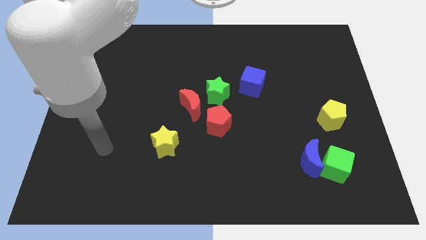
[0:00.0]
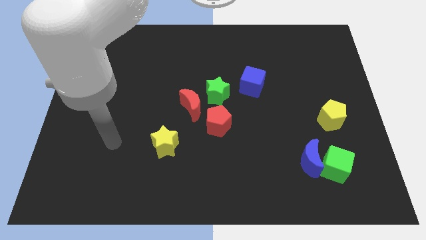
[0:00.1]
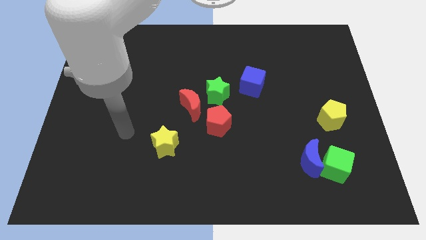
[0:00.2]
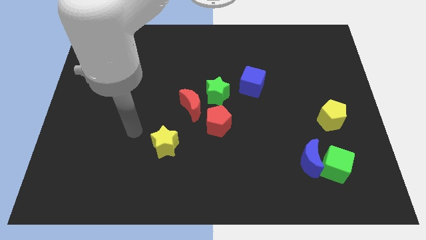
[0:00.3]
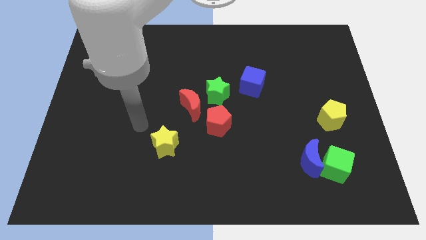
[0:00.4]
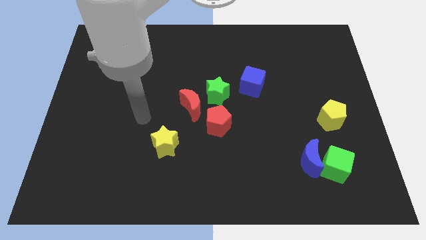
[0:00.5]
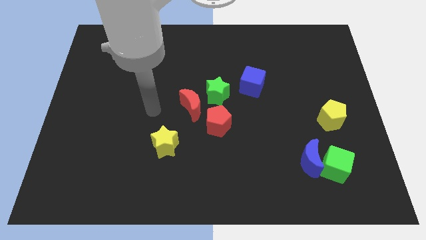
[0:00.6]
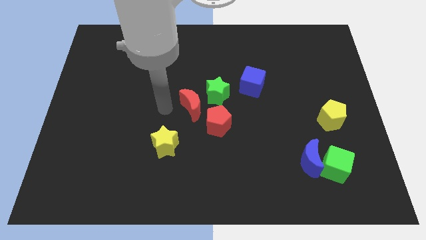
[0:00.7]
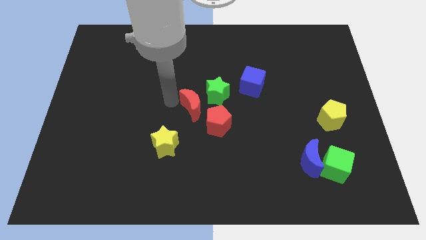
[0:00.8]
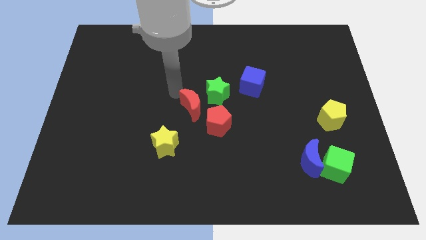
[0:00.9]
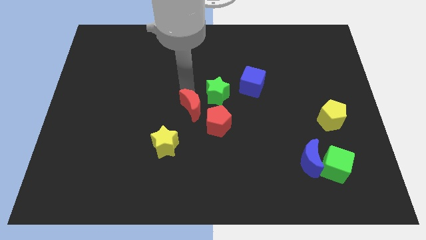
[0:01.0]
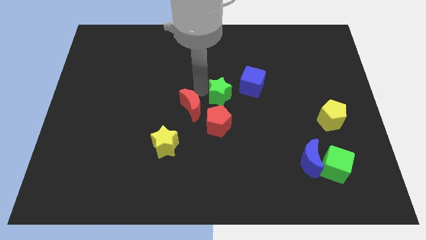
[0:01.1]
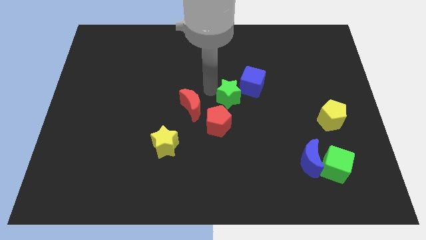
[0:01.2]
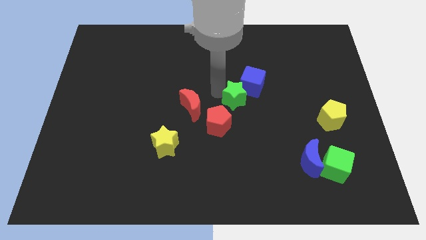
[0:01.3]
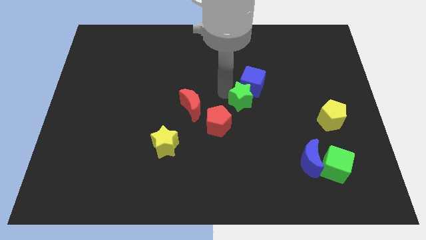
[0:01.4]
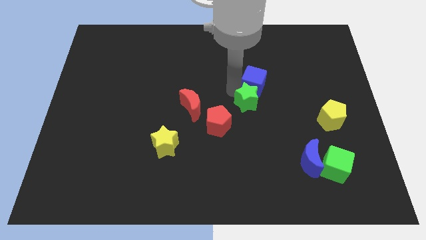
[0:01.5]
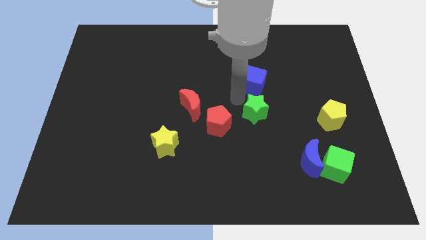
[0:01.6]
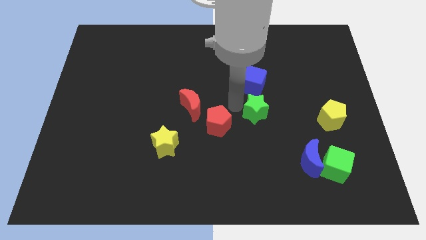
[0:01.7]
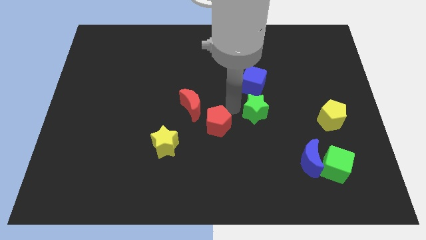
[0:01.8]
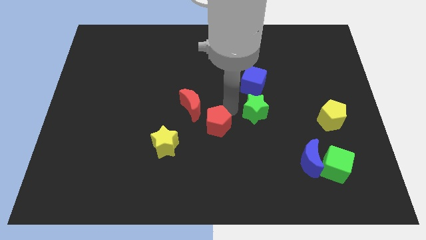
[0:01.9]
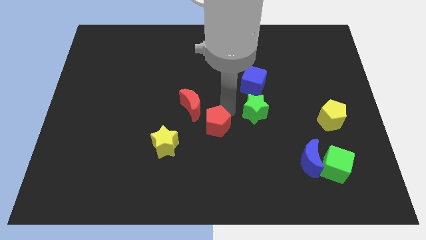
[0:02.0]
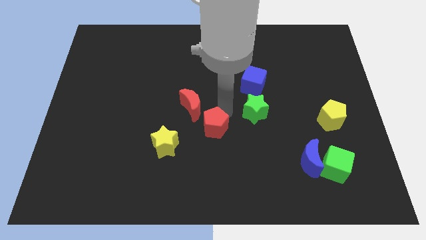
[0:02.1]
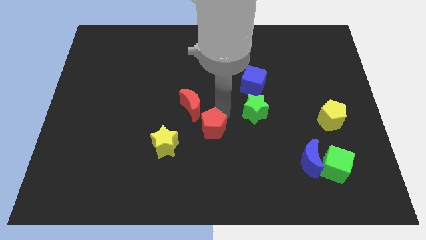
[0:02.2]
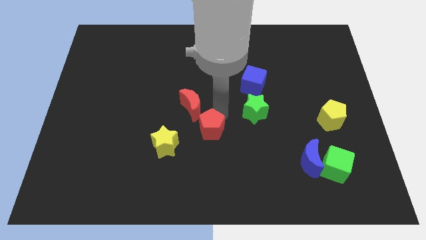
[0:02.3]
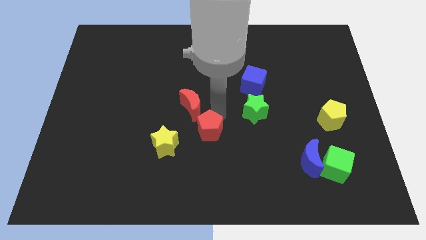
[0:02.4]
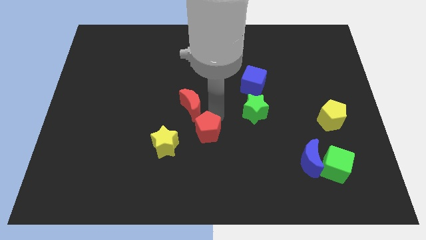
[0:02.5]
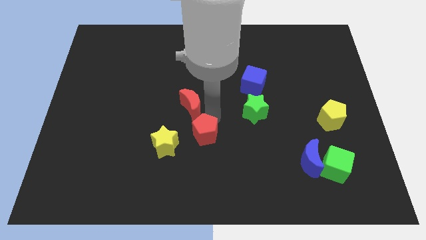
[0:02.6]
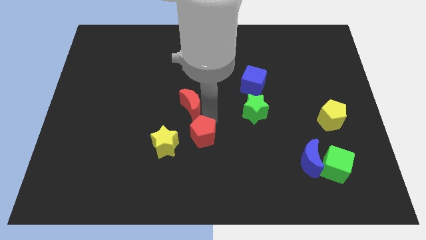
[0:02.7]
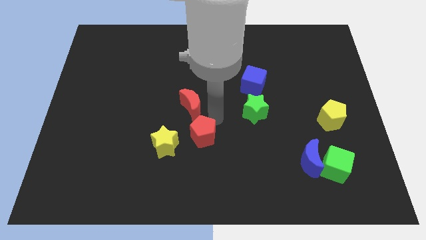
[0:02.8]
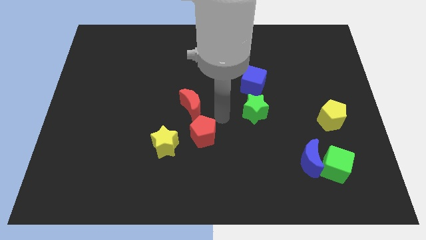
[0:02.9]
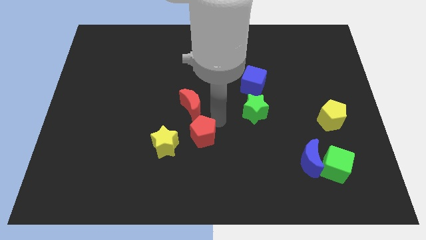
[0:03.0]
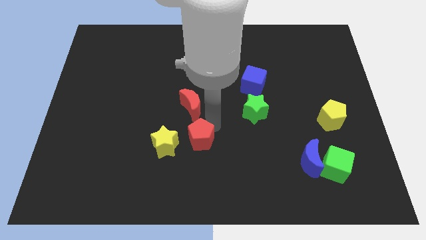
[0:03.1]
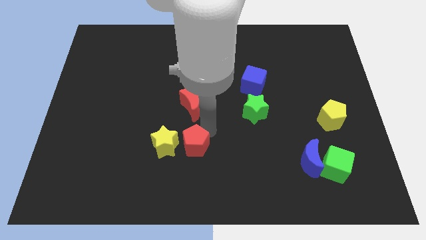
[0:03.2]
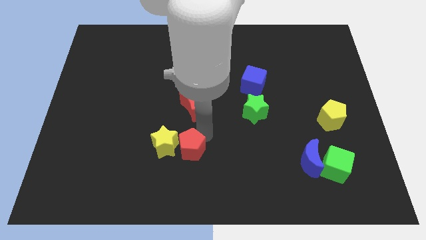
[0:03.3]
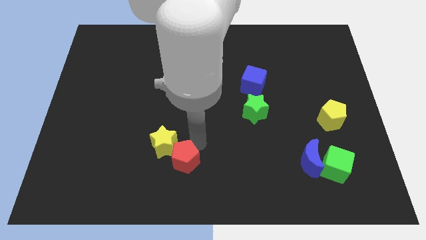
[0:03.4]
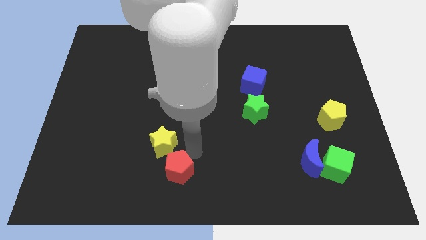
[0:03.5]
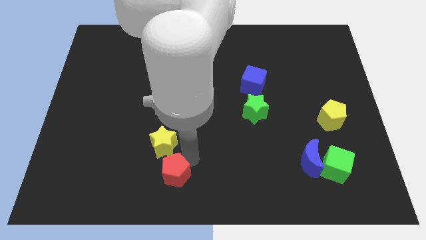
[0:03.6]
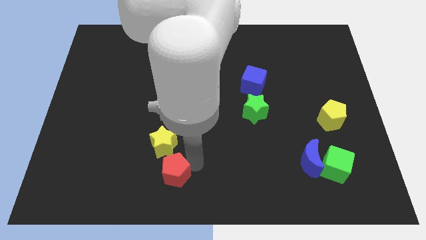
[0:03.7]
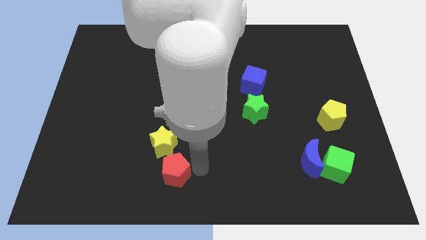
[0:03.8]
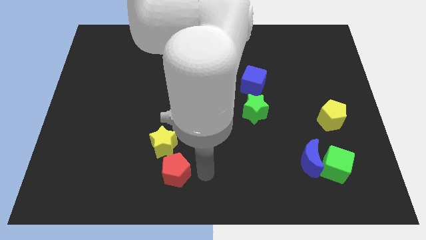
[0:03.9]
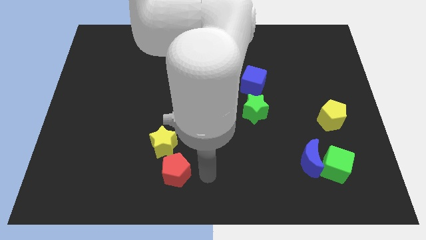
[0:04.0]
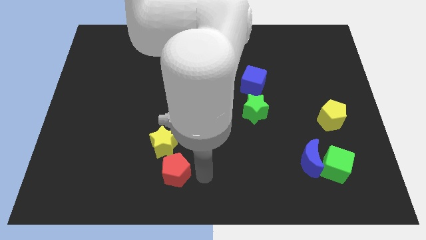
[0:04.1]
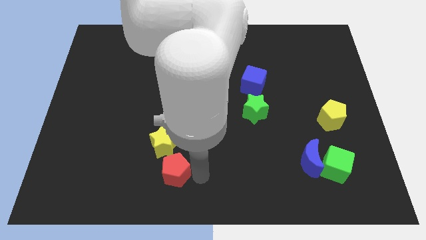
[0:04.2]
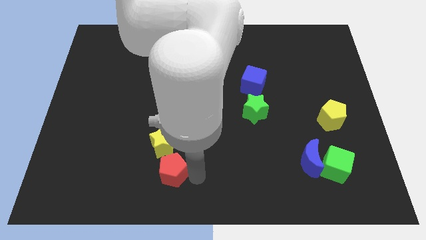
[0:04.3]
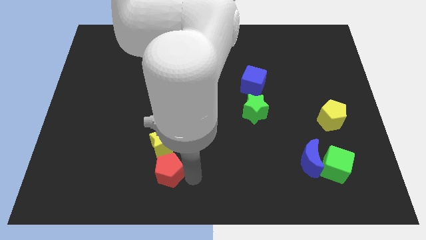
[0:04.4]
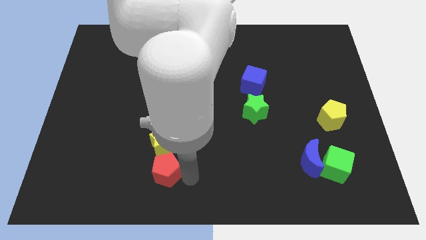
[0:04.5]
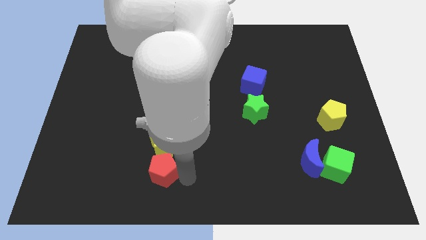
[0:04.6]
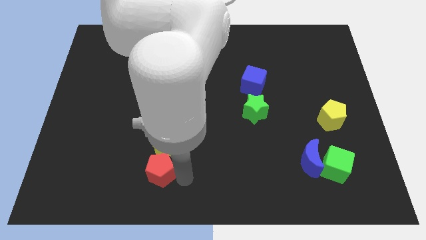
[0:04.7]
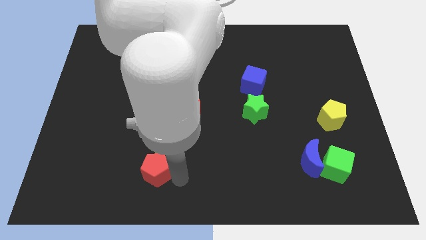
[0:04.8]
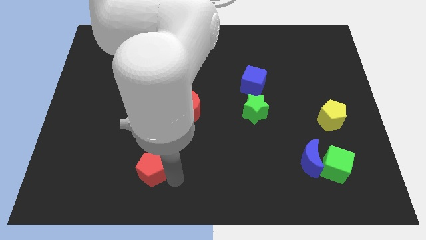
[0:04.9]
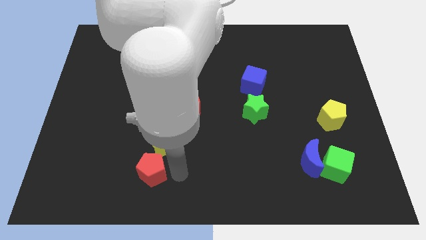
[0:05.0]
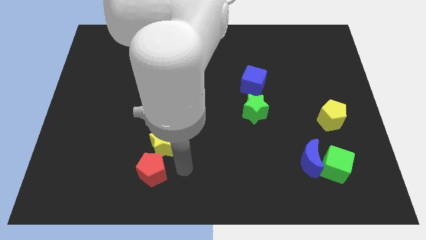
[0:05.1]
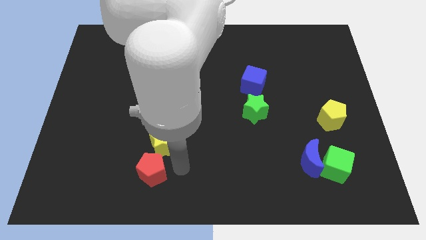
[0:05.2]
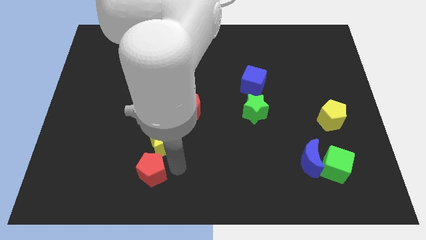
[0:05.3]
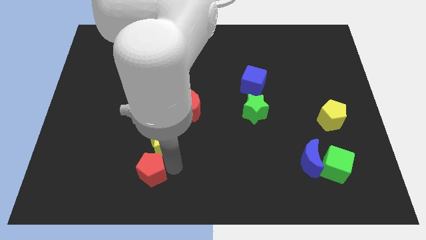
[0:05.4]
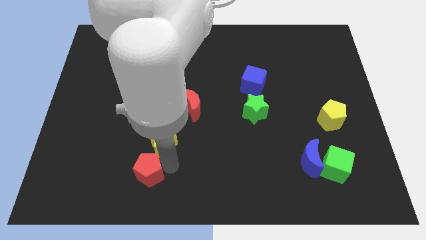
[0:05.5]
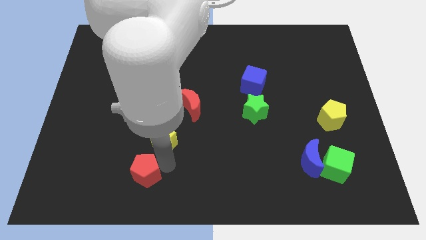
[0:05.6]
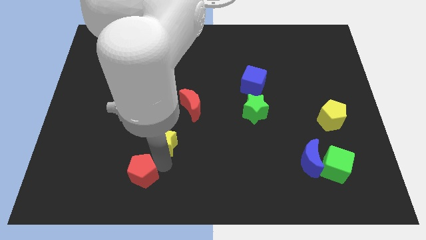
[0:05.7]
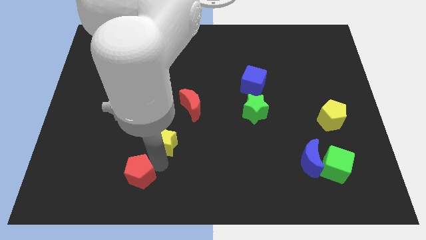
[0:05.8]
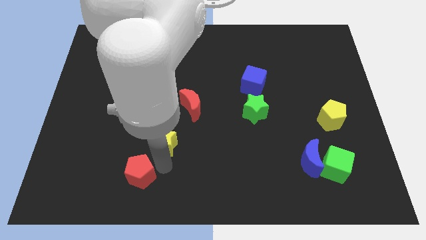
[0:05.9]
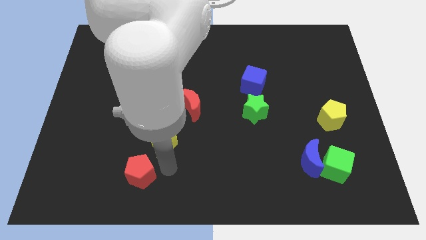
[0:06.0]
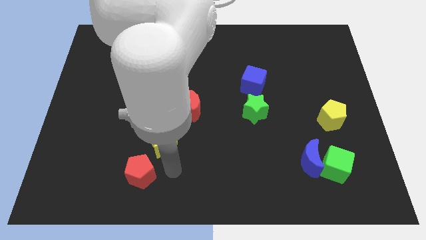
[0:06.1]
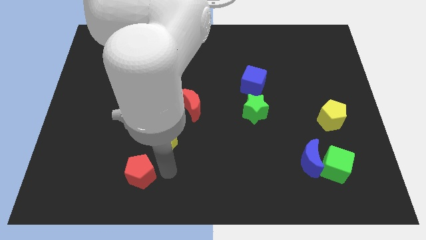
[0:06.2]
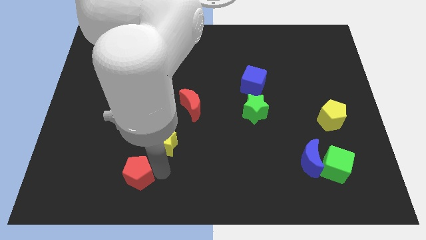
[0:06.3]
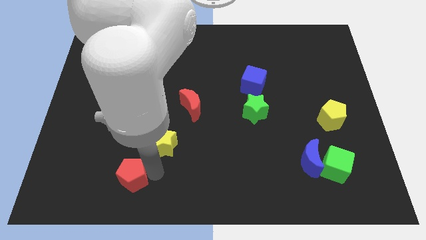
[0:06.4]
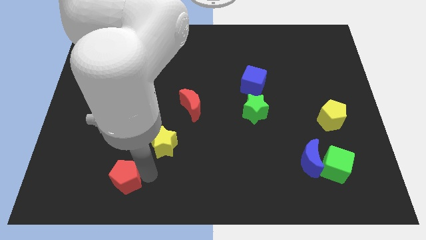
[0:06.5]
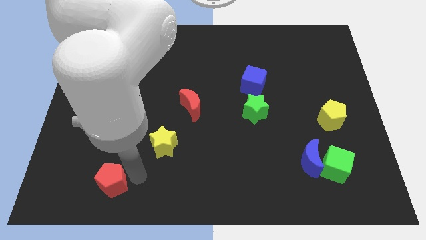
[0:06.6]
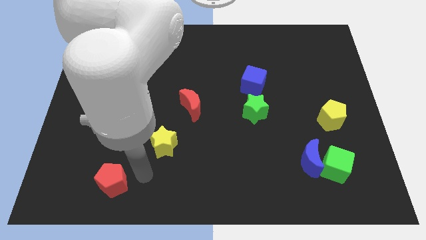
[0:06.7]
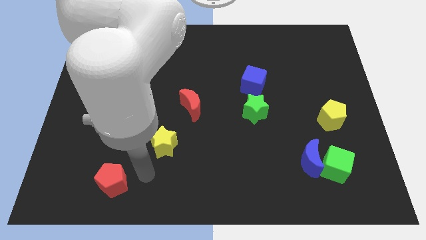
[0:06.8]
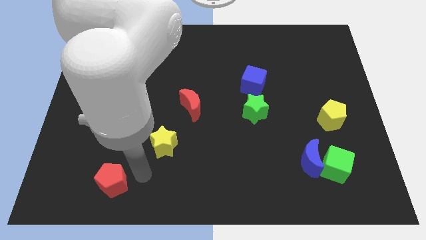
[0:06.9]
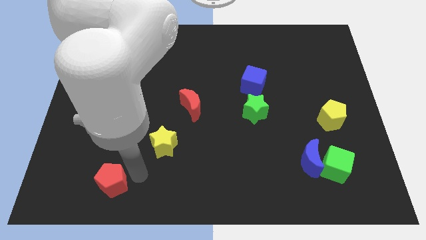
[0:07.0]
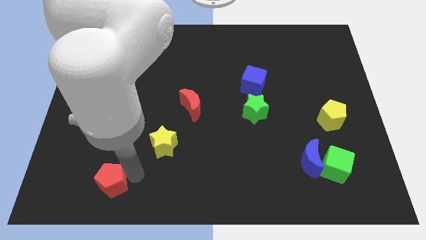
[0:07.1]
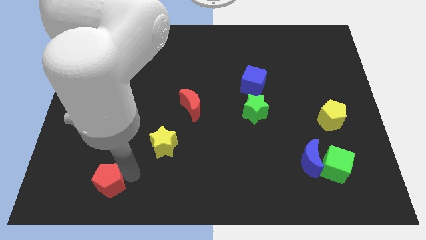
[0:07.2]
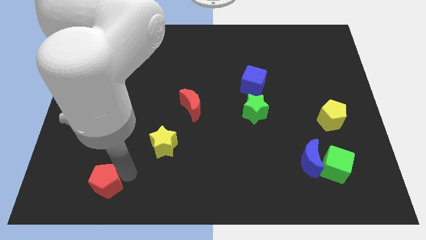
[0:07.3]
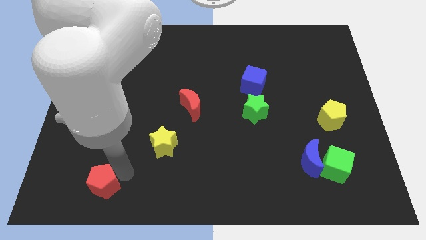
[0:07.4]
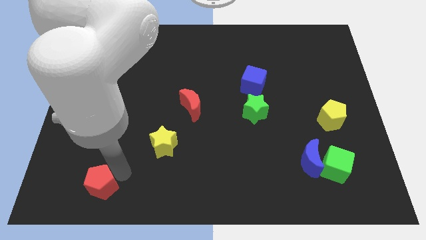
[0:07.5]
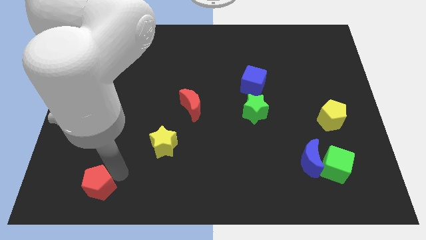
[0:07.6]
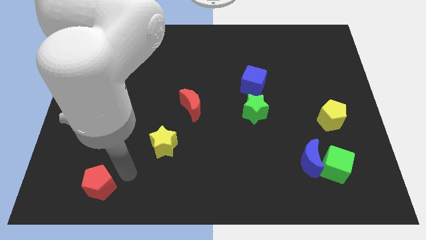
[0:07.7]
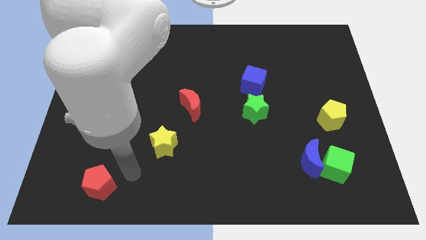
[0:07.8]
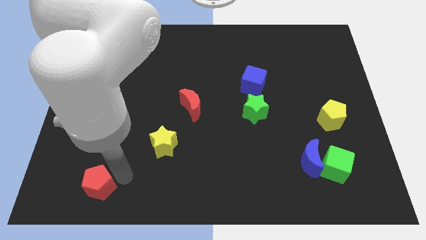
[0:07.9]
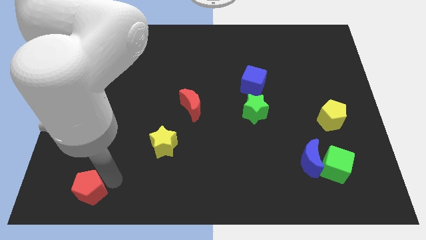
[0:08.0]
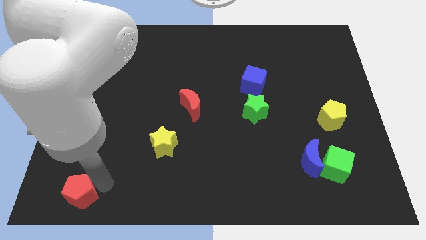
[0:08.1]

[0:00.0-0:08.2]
put the red pentagon to the bottom left of the board
